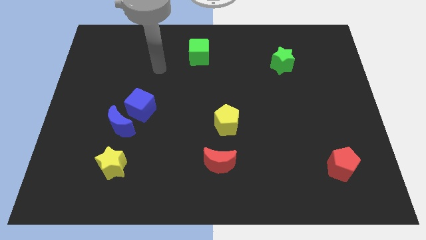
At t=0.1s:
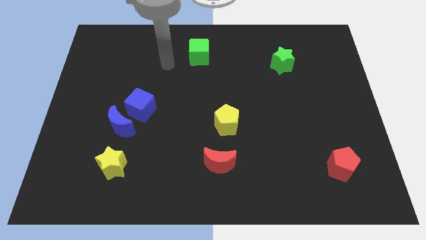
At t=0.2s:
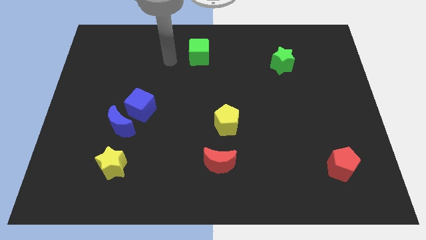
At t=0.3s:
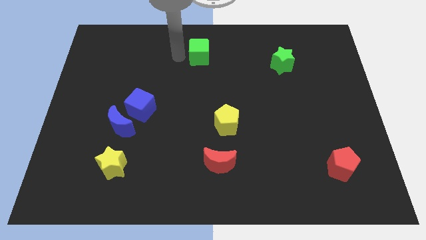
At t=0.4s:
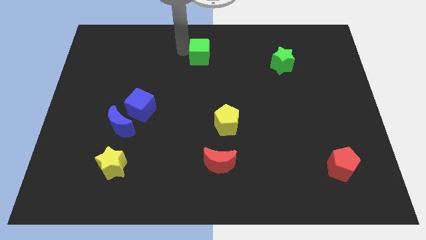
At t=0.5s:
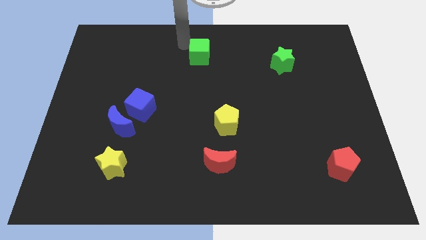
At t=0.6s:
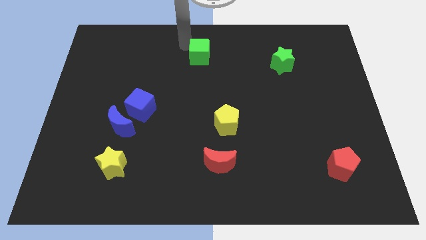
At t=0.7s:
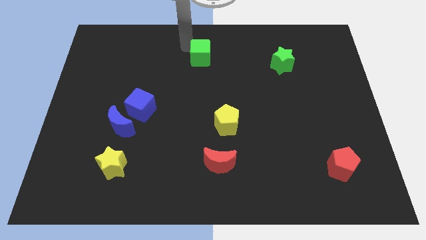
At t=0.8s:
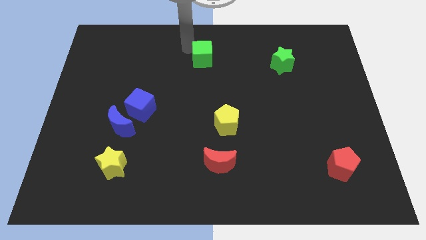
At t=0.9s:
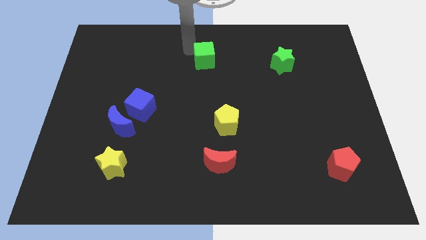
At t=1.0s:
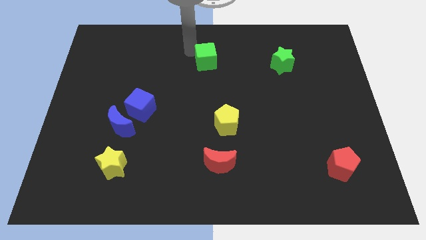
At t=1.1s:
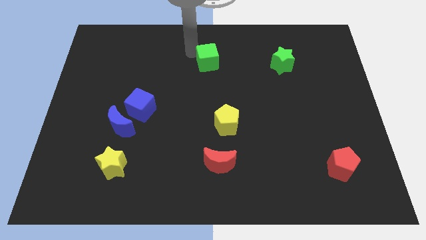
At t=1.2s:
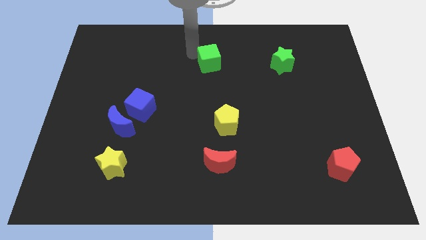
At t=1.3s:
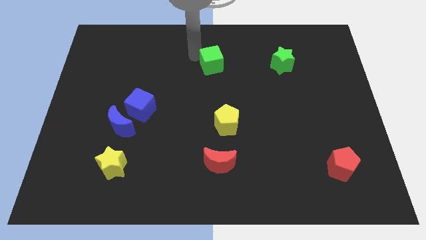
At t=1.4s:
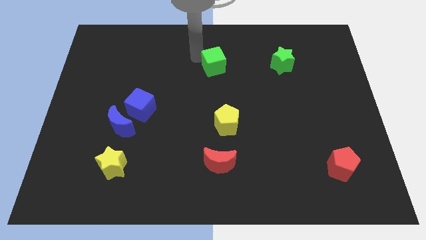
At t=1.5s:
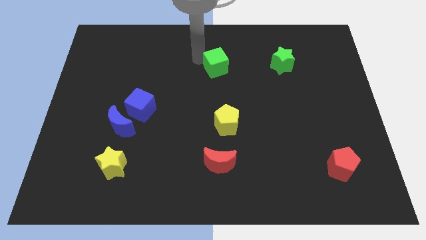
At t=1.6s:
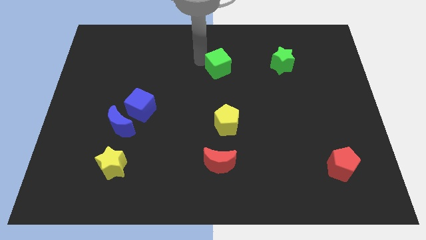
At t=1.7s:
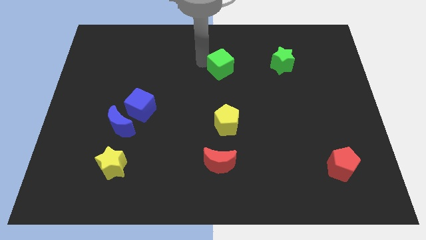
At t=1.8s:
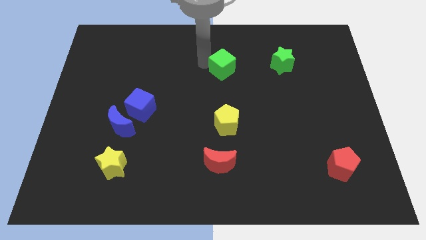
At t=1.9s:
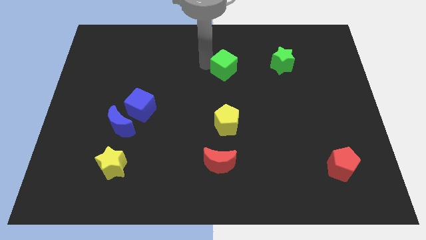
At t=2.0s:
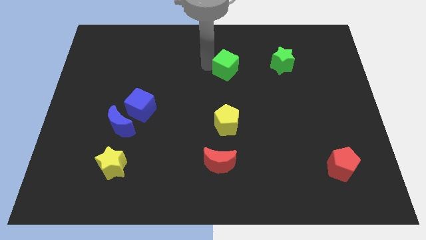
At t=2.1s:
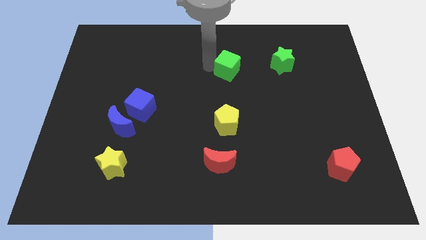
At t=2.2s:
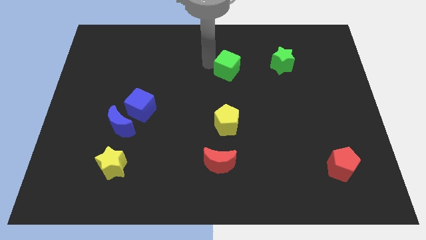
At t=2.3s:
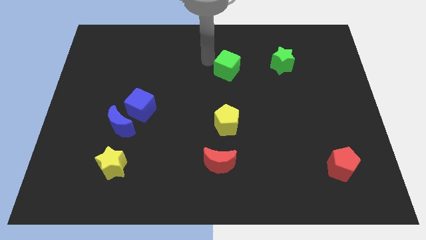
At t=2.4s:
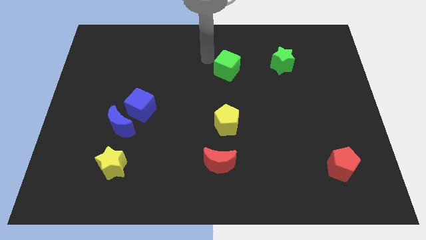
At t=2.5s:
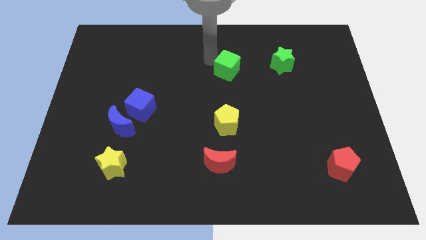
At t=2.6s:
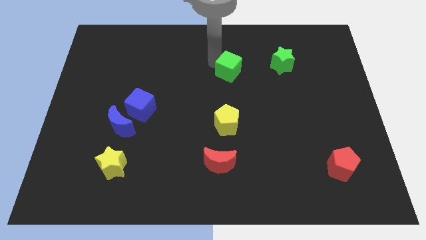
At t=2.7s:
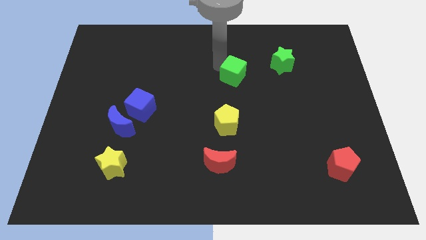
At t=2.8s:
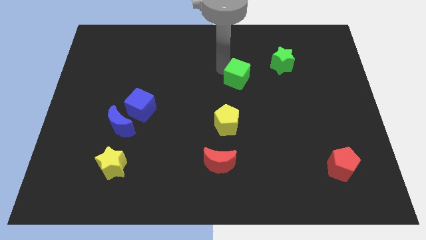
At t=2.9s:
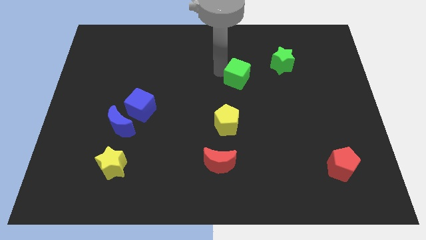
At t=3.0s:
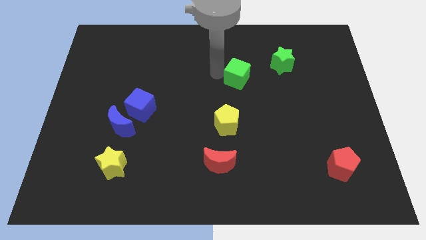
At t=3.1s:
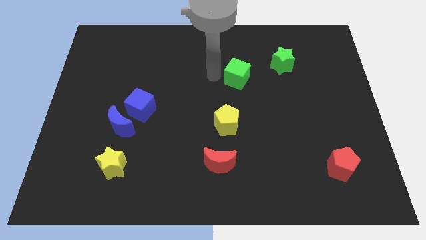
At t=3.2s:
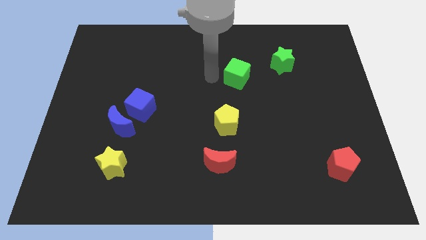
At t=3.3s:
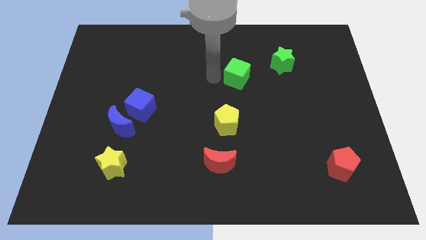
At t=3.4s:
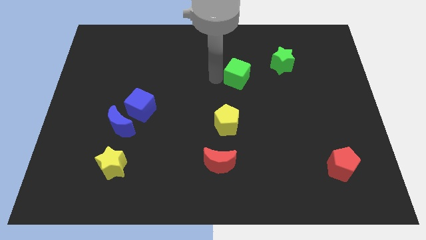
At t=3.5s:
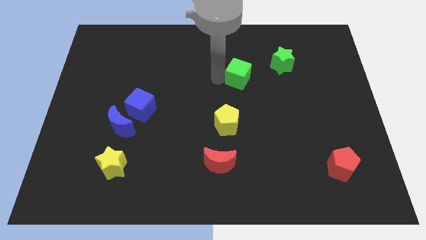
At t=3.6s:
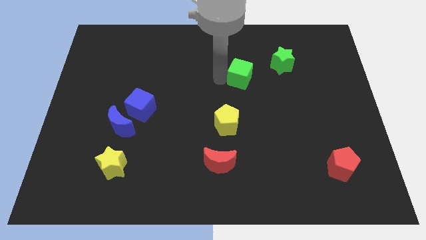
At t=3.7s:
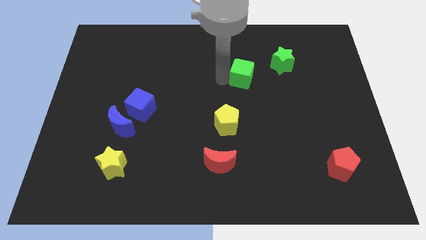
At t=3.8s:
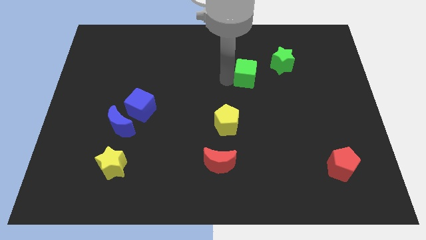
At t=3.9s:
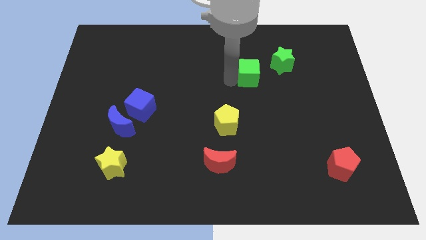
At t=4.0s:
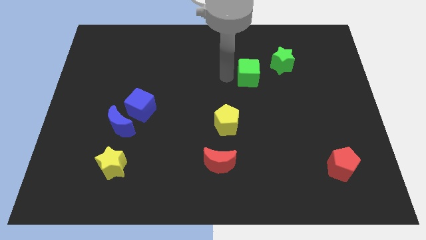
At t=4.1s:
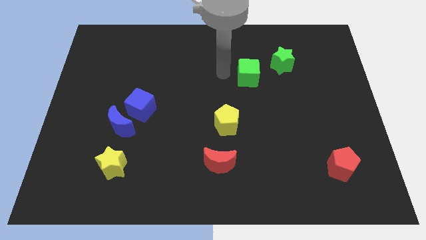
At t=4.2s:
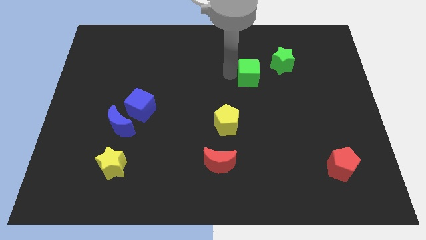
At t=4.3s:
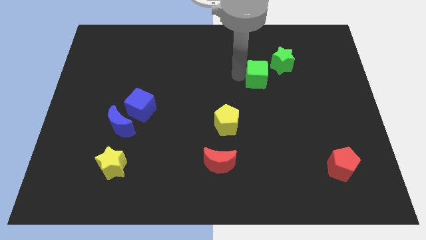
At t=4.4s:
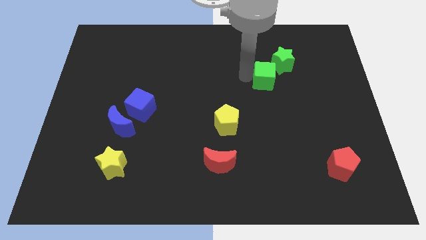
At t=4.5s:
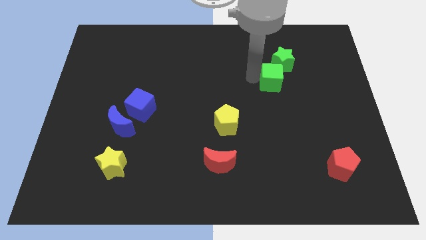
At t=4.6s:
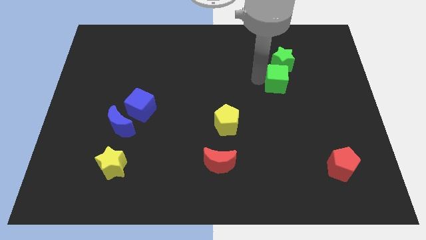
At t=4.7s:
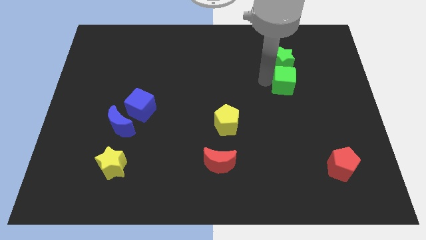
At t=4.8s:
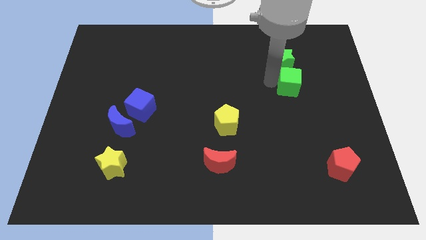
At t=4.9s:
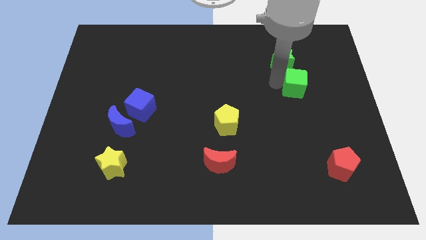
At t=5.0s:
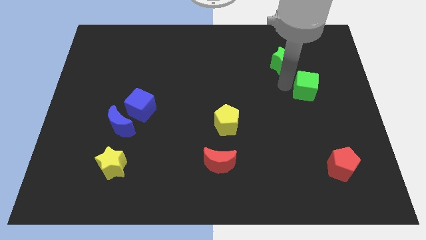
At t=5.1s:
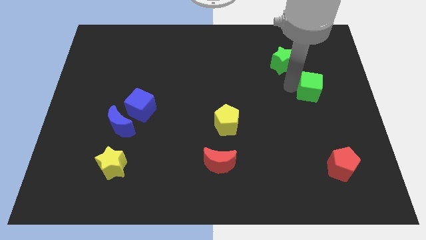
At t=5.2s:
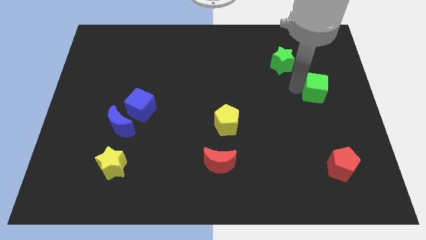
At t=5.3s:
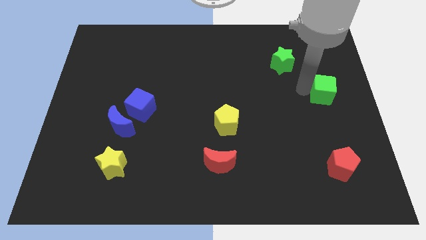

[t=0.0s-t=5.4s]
move the green cube to the right side

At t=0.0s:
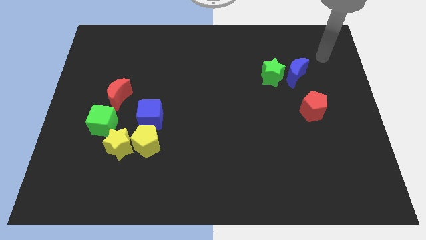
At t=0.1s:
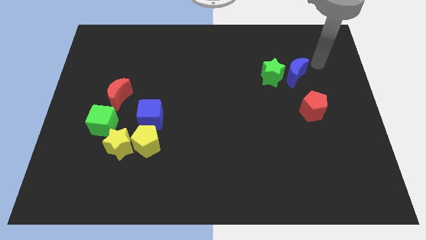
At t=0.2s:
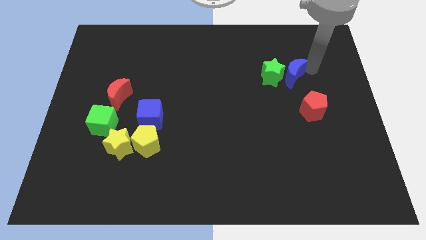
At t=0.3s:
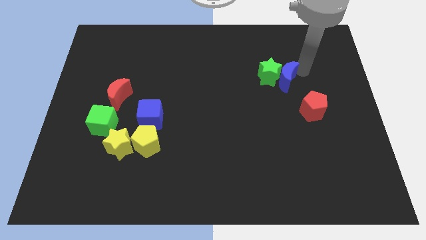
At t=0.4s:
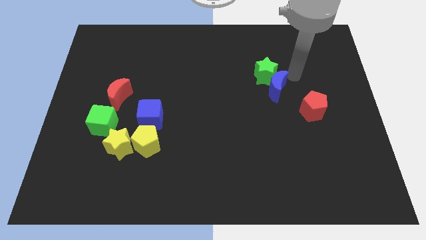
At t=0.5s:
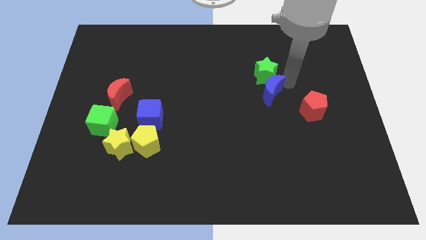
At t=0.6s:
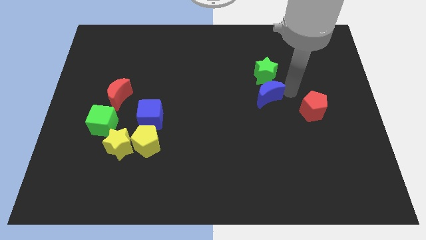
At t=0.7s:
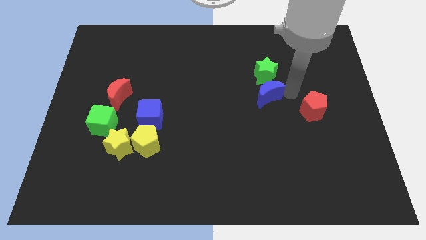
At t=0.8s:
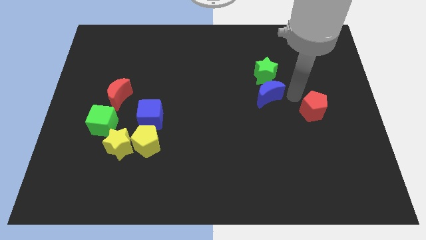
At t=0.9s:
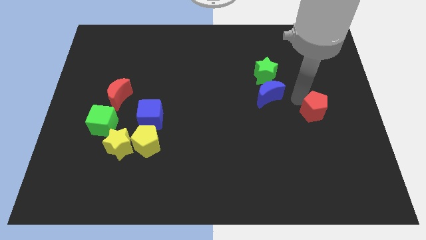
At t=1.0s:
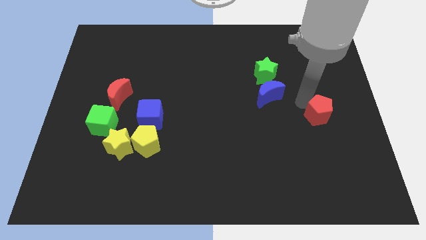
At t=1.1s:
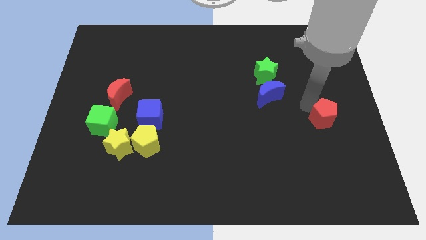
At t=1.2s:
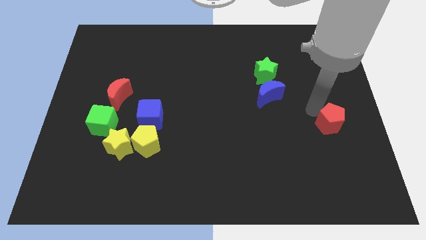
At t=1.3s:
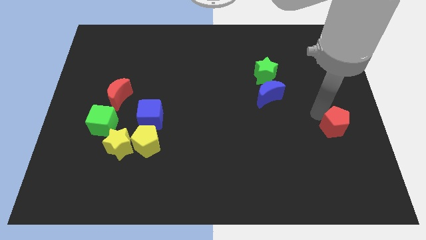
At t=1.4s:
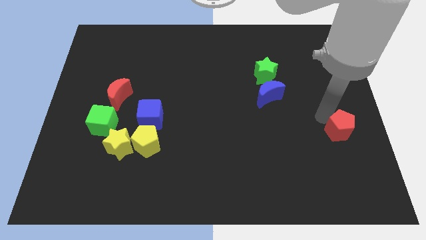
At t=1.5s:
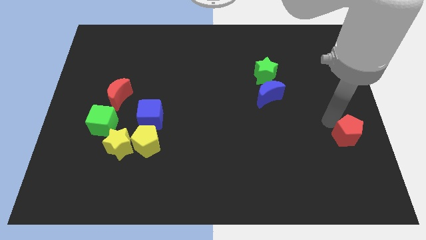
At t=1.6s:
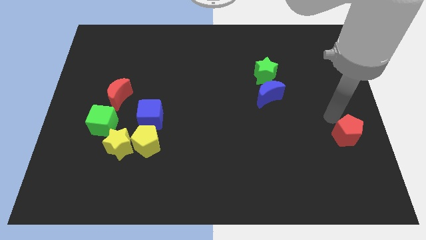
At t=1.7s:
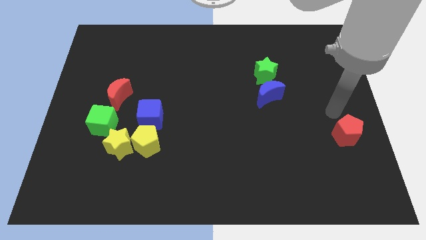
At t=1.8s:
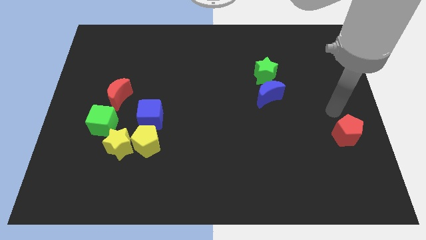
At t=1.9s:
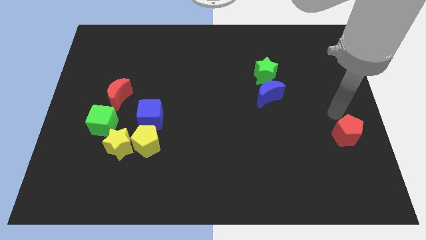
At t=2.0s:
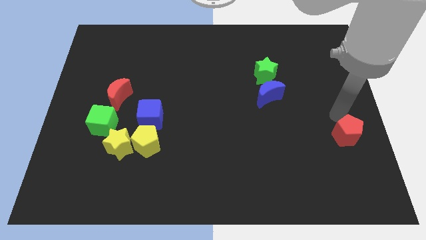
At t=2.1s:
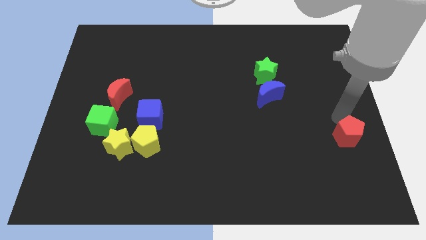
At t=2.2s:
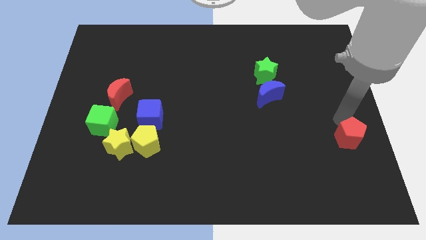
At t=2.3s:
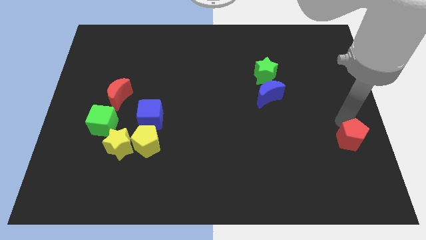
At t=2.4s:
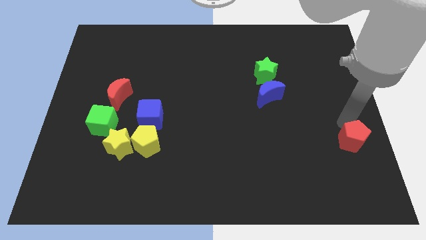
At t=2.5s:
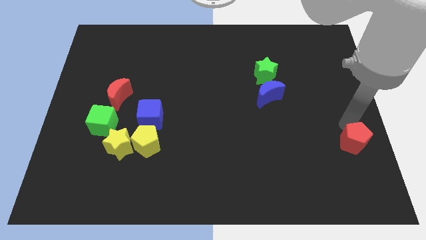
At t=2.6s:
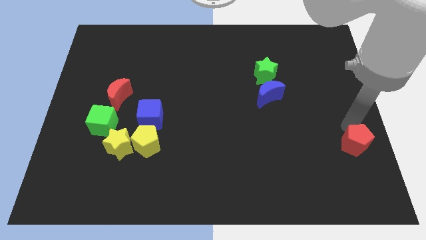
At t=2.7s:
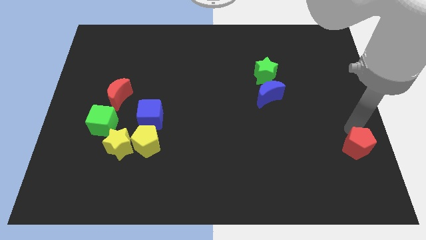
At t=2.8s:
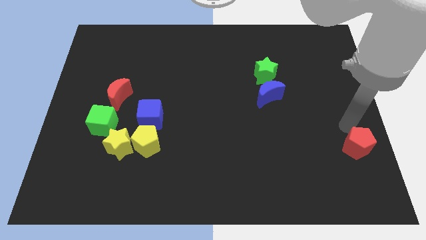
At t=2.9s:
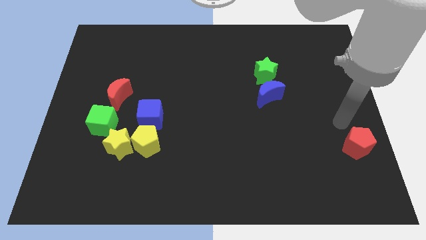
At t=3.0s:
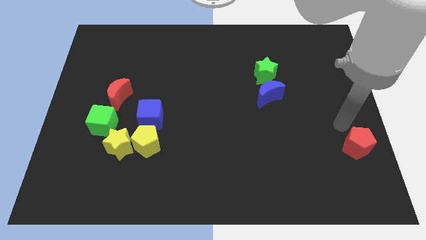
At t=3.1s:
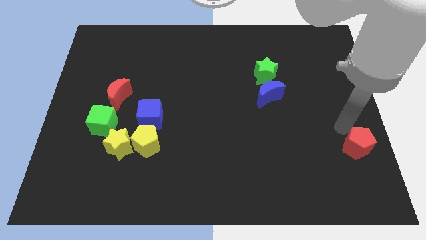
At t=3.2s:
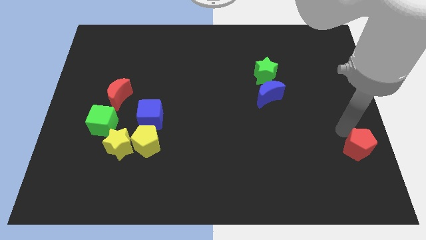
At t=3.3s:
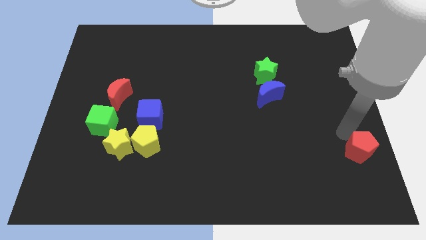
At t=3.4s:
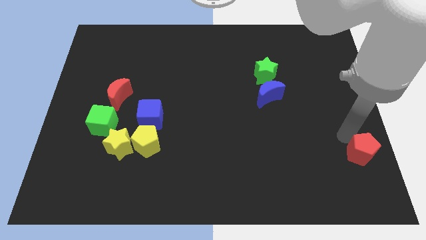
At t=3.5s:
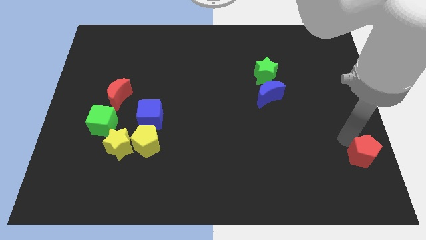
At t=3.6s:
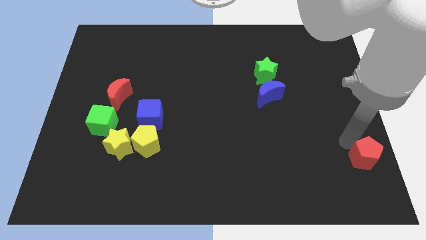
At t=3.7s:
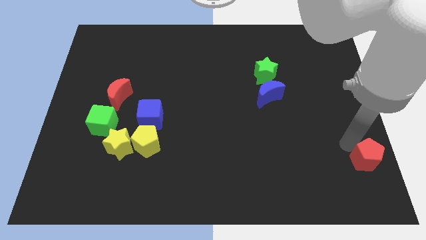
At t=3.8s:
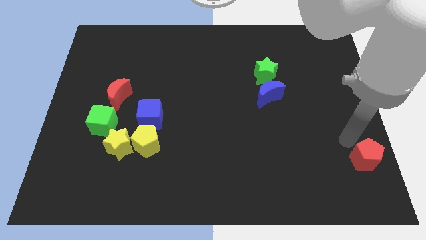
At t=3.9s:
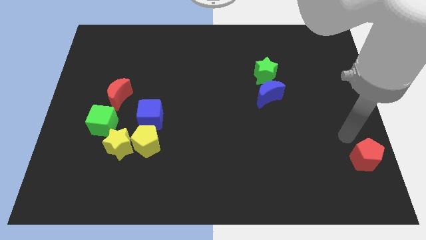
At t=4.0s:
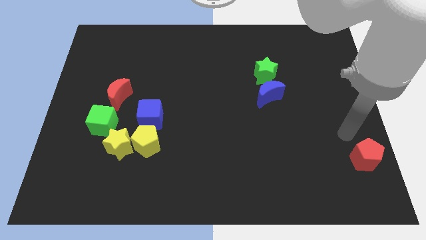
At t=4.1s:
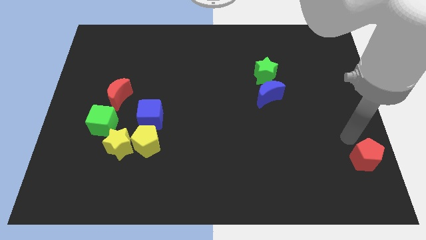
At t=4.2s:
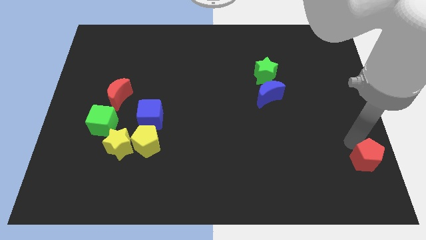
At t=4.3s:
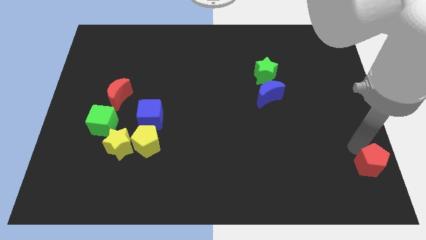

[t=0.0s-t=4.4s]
slide the red pentagon to the lower right corner
